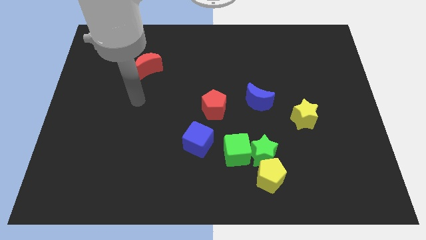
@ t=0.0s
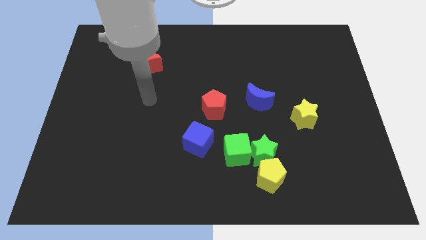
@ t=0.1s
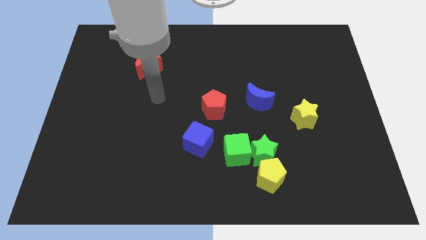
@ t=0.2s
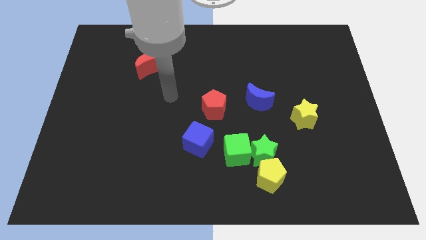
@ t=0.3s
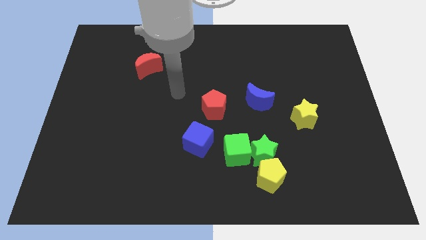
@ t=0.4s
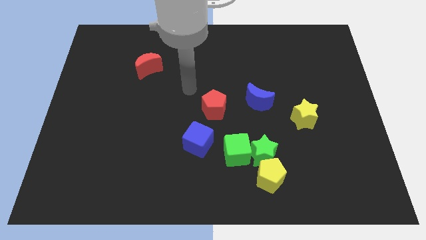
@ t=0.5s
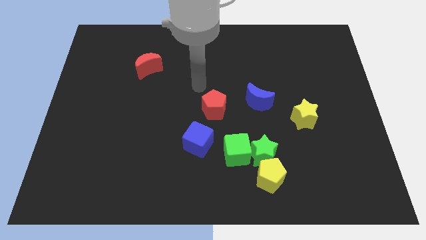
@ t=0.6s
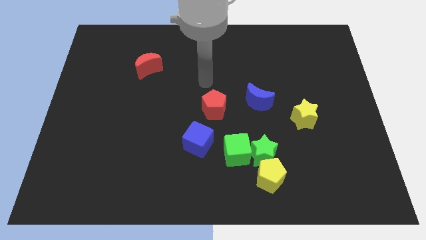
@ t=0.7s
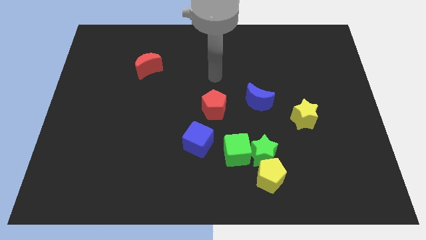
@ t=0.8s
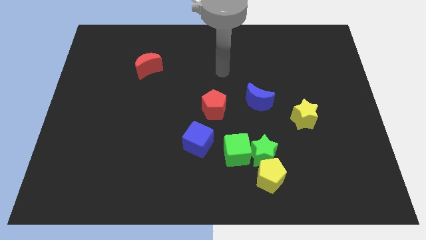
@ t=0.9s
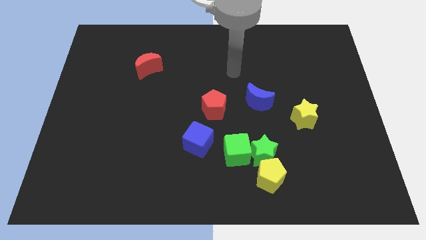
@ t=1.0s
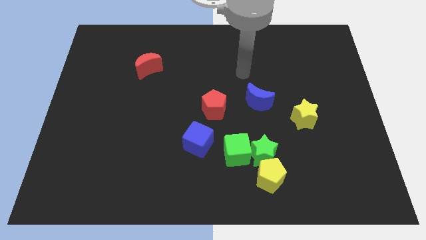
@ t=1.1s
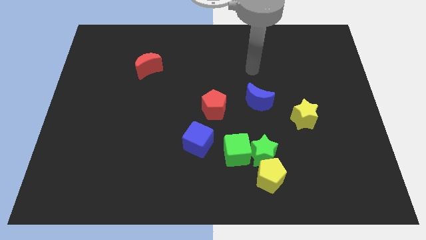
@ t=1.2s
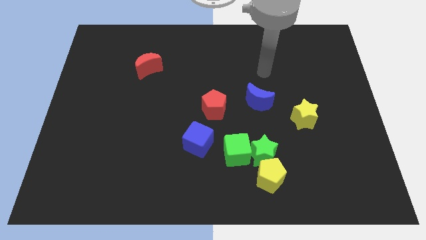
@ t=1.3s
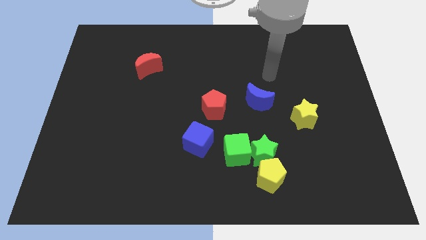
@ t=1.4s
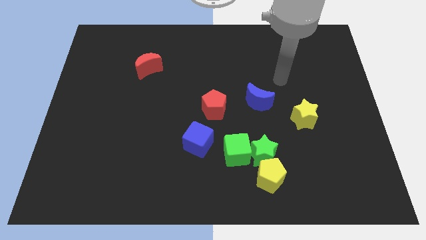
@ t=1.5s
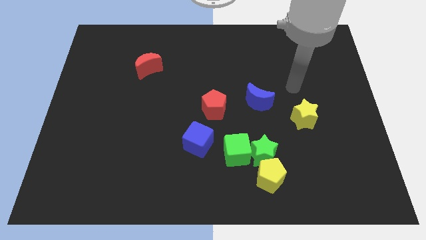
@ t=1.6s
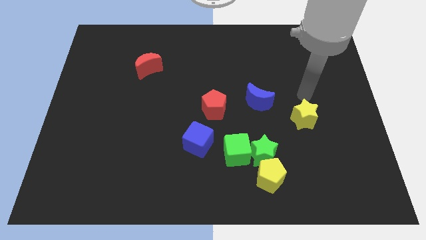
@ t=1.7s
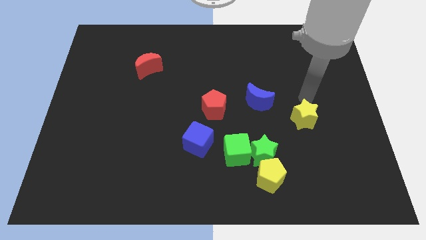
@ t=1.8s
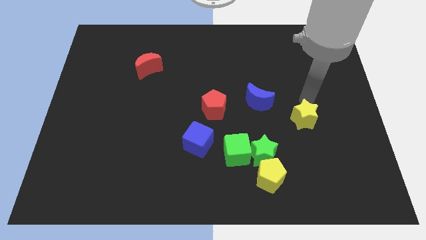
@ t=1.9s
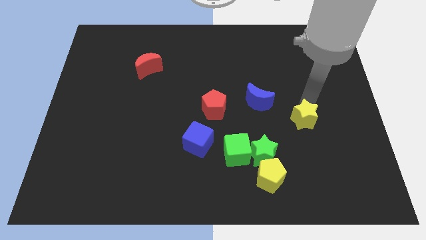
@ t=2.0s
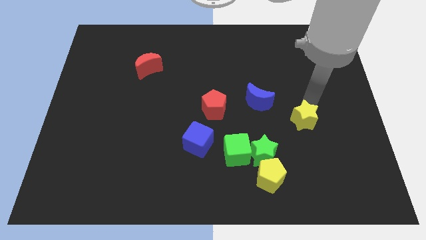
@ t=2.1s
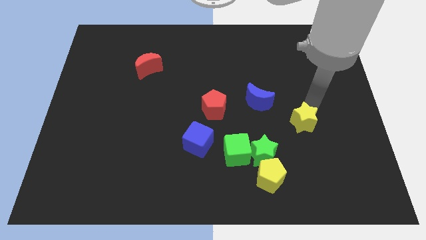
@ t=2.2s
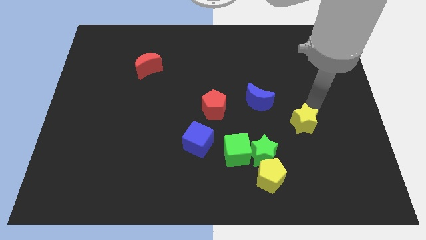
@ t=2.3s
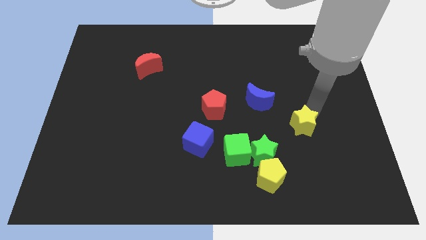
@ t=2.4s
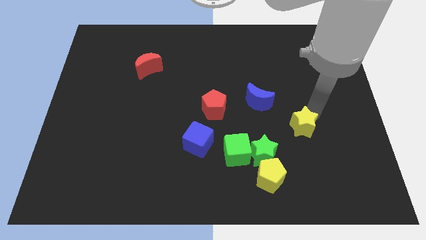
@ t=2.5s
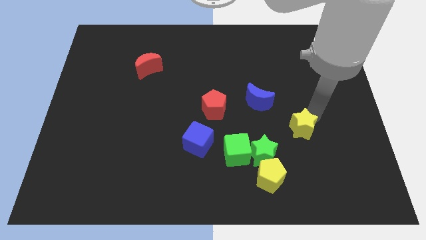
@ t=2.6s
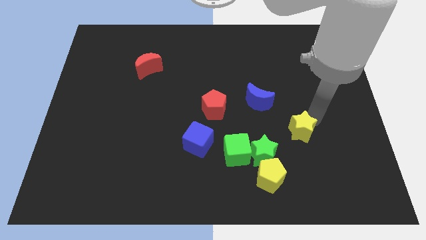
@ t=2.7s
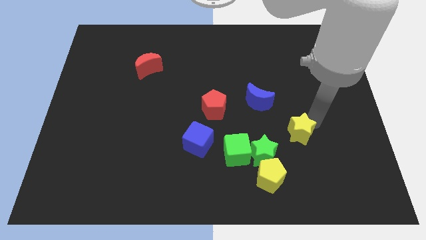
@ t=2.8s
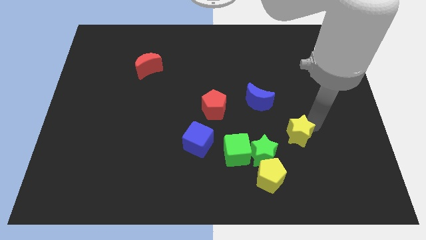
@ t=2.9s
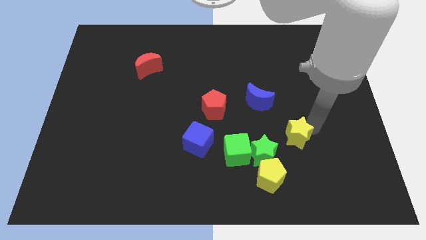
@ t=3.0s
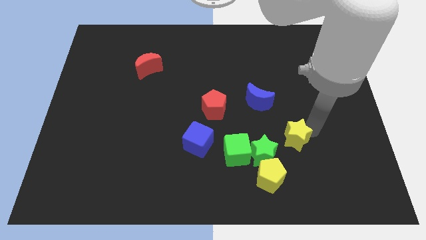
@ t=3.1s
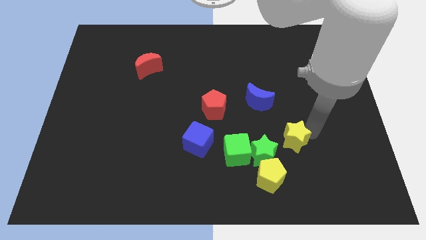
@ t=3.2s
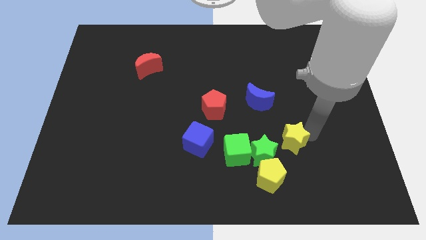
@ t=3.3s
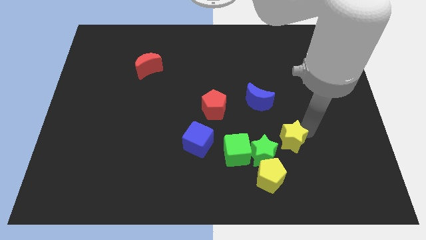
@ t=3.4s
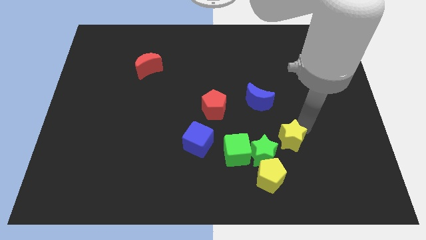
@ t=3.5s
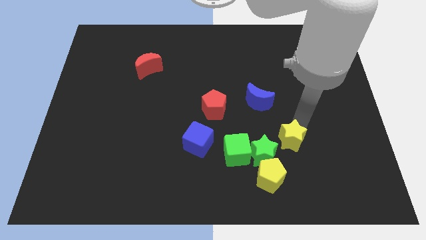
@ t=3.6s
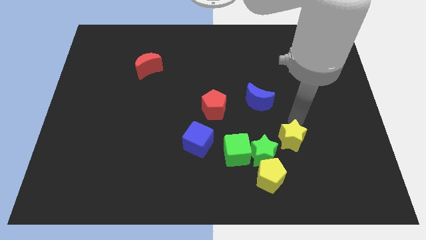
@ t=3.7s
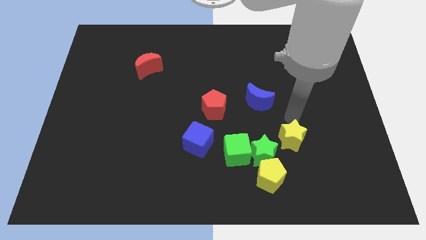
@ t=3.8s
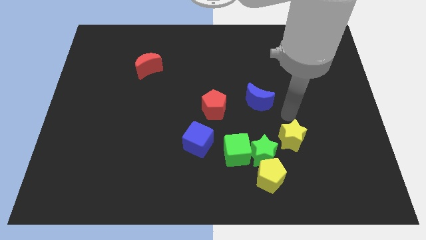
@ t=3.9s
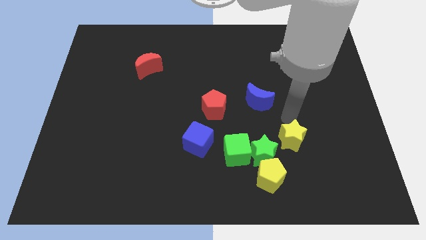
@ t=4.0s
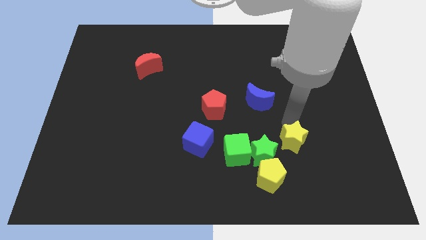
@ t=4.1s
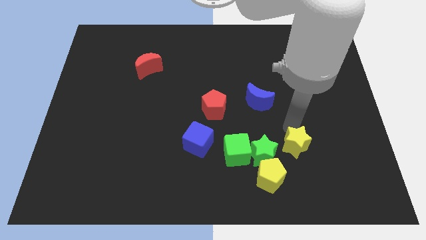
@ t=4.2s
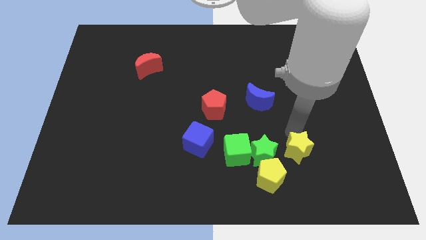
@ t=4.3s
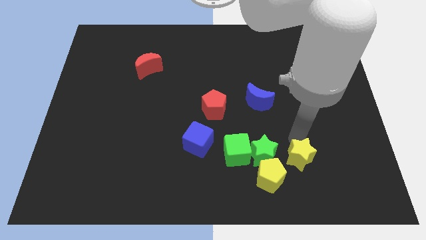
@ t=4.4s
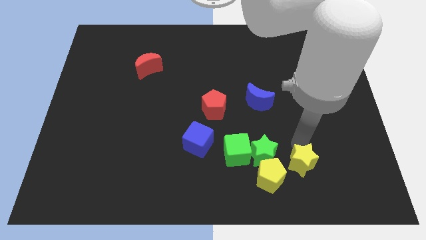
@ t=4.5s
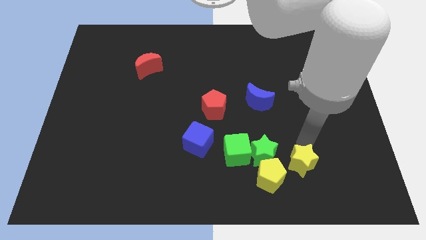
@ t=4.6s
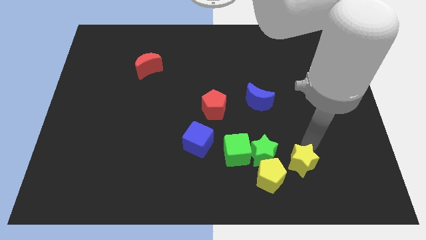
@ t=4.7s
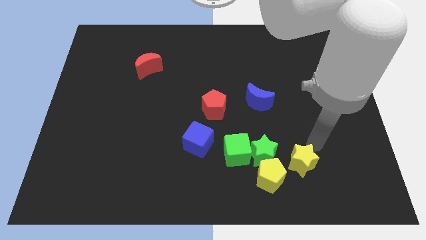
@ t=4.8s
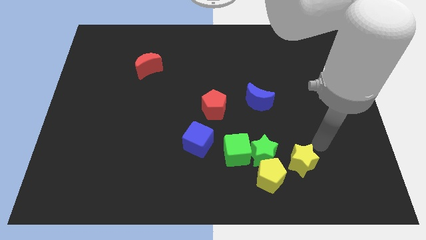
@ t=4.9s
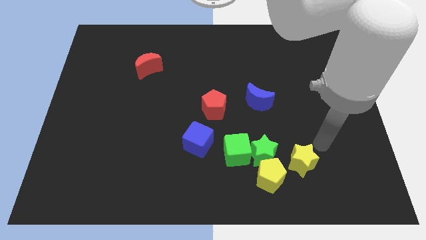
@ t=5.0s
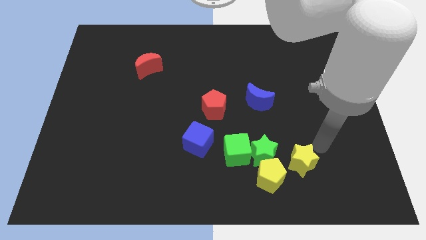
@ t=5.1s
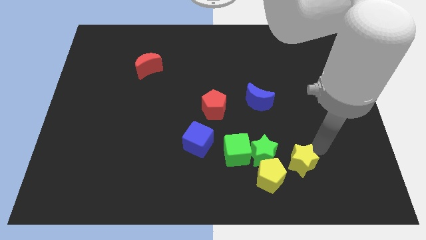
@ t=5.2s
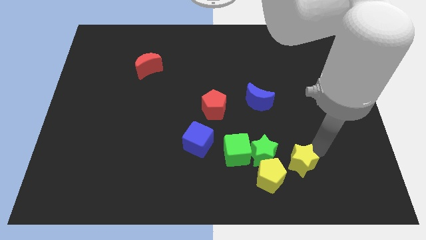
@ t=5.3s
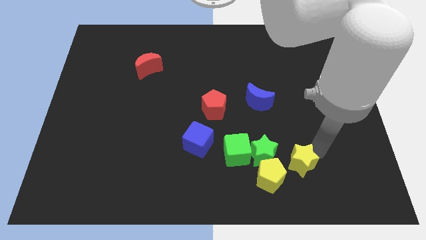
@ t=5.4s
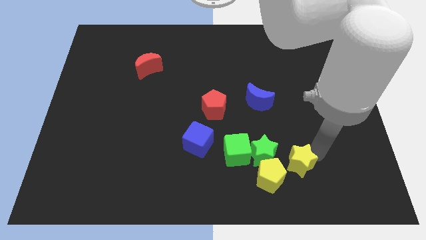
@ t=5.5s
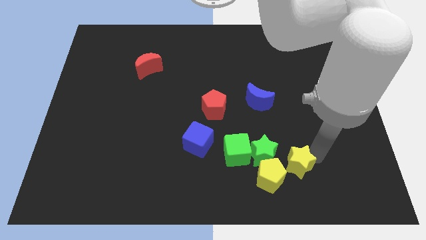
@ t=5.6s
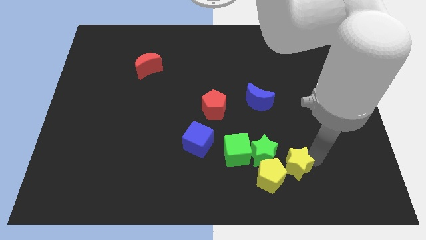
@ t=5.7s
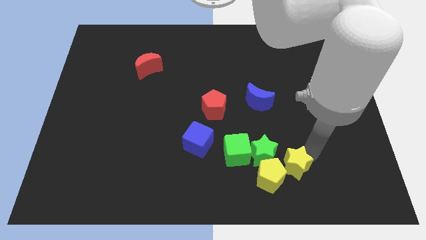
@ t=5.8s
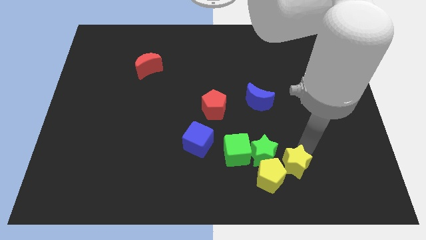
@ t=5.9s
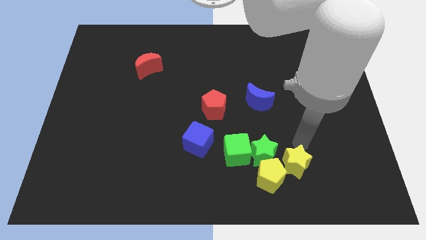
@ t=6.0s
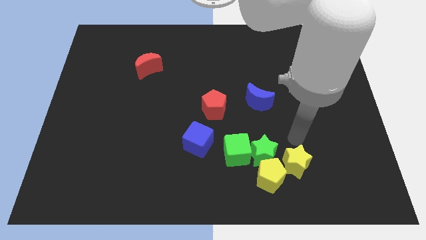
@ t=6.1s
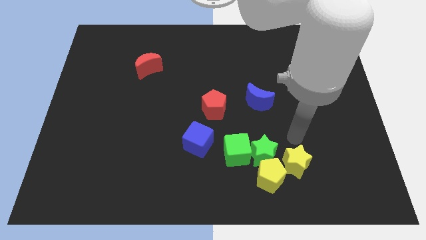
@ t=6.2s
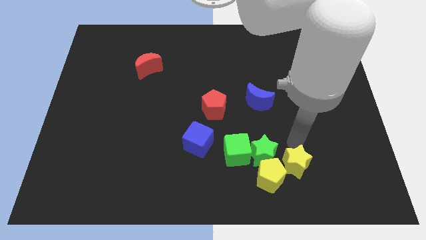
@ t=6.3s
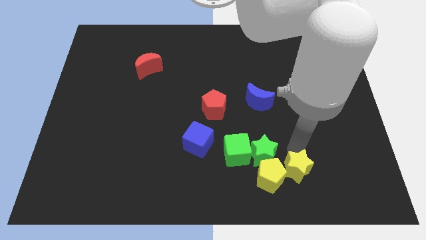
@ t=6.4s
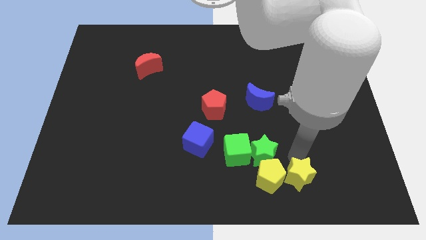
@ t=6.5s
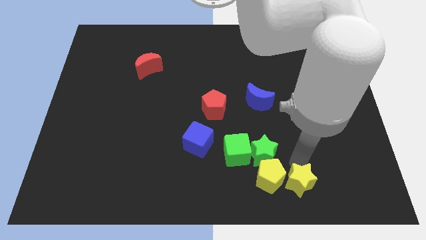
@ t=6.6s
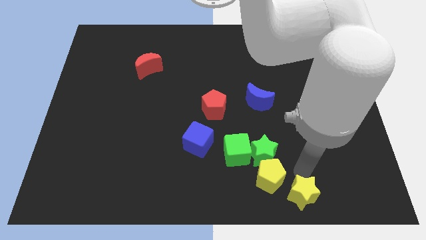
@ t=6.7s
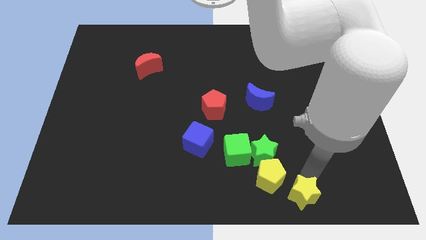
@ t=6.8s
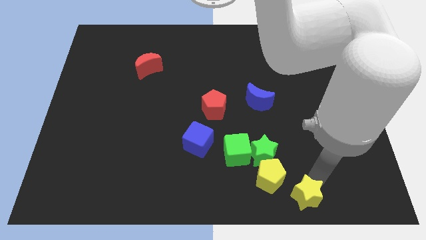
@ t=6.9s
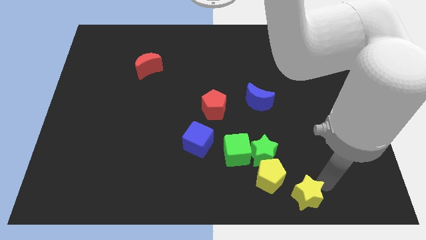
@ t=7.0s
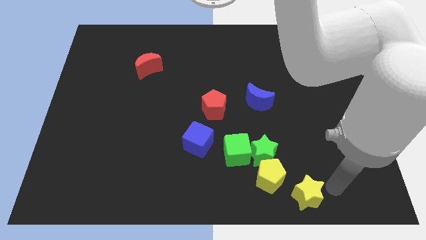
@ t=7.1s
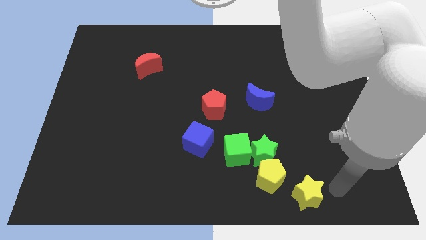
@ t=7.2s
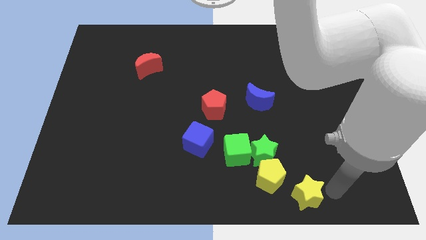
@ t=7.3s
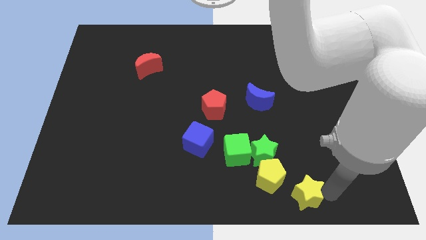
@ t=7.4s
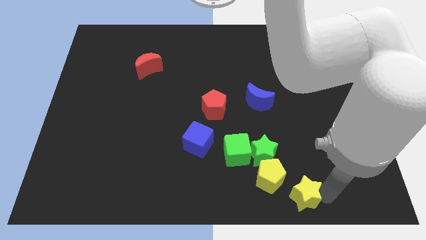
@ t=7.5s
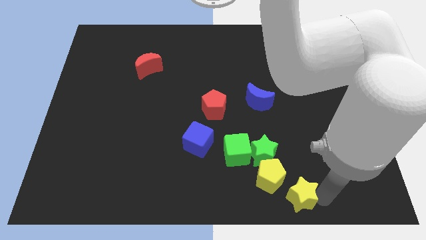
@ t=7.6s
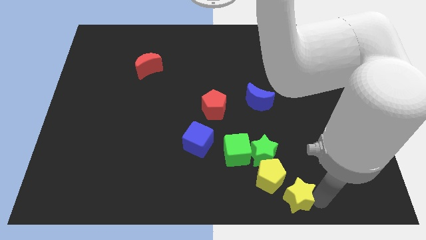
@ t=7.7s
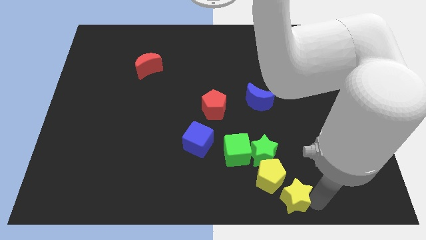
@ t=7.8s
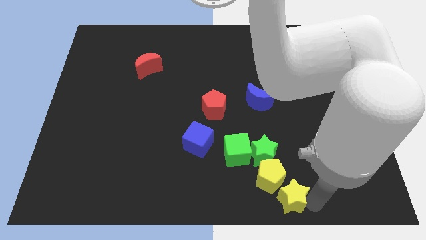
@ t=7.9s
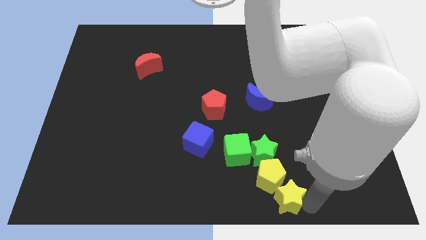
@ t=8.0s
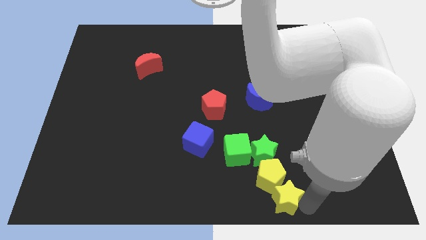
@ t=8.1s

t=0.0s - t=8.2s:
put the yellow star to the bottom
